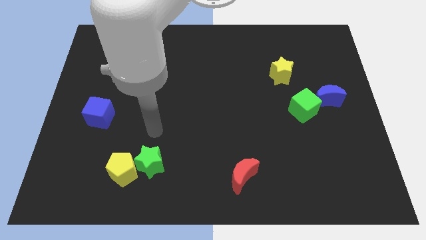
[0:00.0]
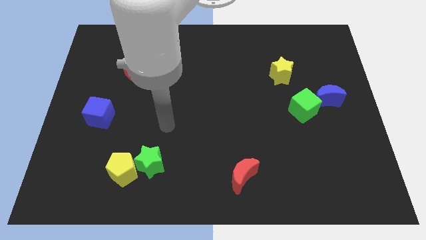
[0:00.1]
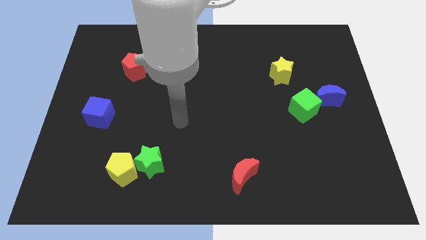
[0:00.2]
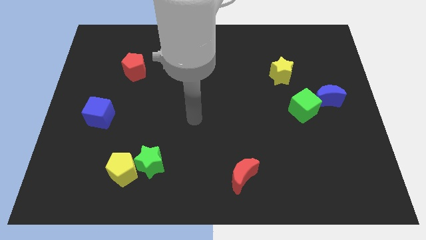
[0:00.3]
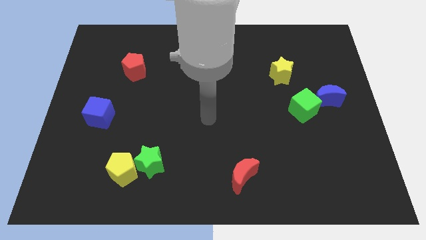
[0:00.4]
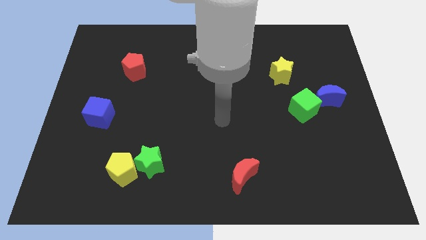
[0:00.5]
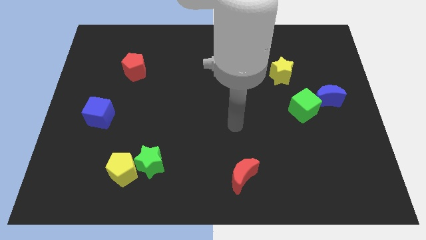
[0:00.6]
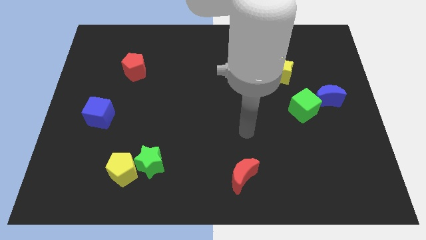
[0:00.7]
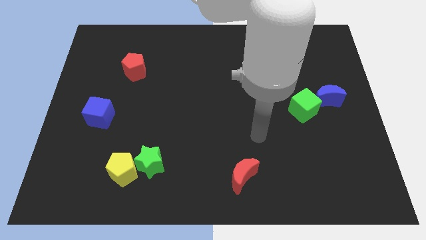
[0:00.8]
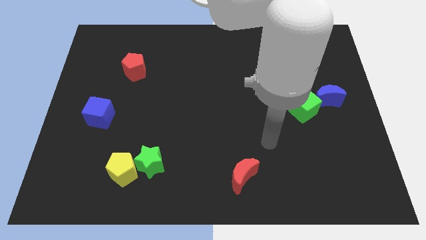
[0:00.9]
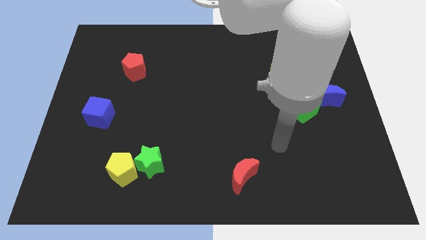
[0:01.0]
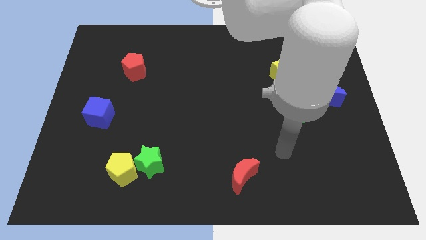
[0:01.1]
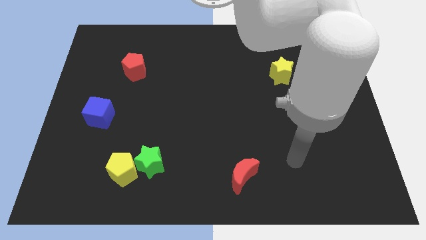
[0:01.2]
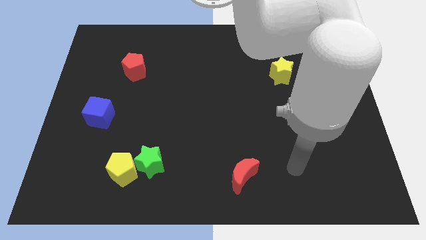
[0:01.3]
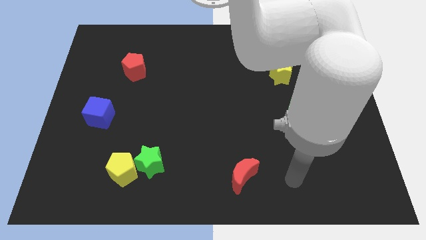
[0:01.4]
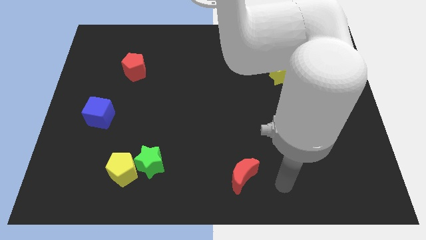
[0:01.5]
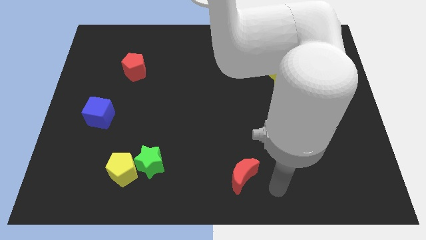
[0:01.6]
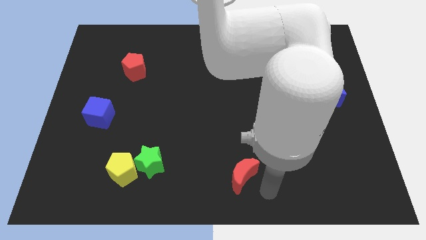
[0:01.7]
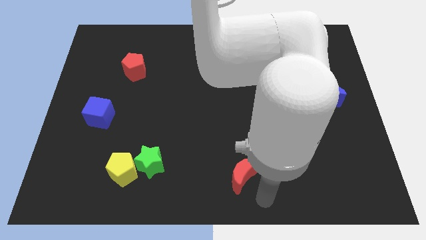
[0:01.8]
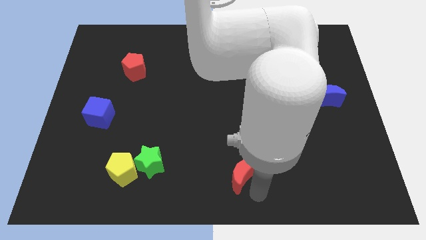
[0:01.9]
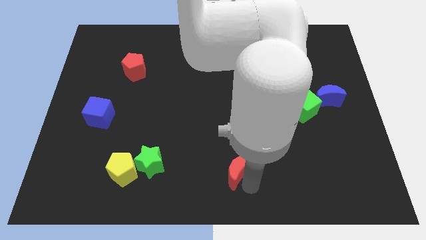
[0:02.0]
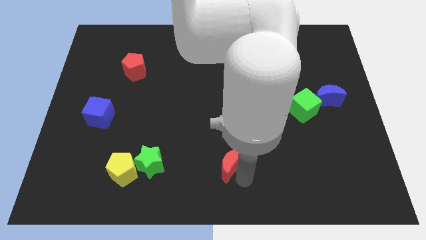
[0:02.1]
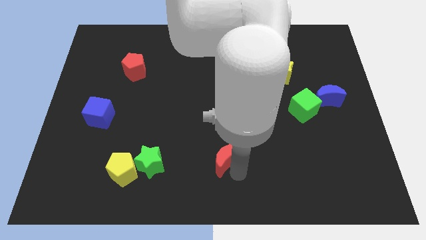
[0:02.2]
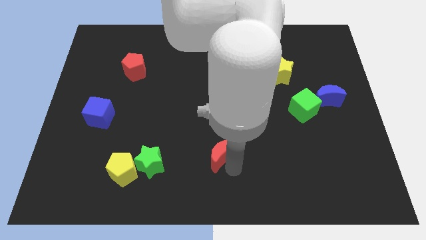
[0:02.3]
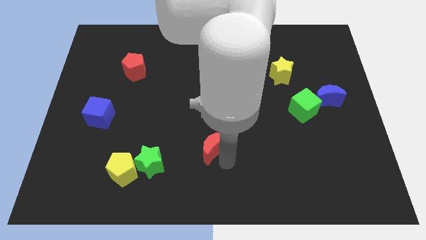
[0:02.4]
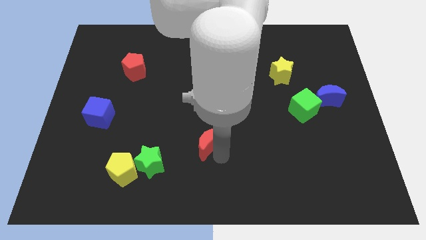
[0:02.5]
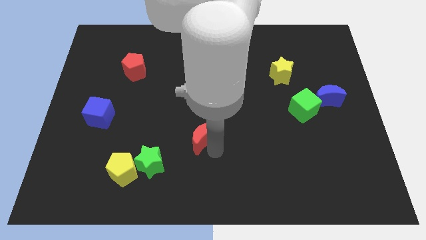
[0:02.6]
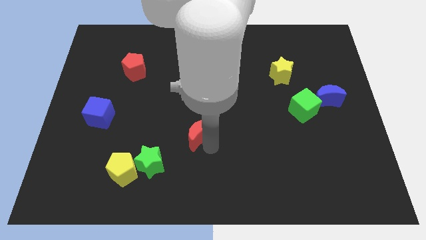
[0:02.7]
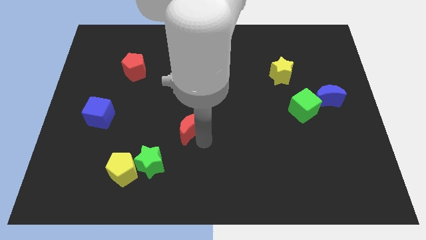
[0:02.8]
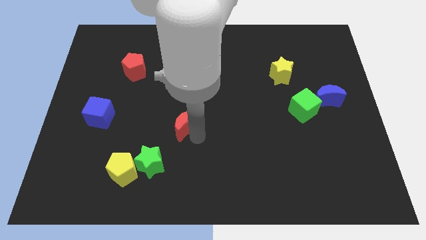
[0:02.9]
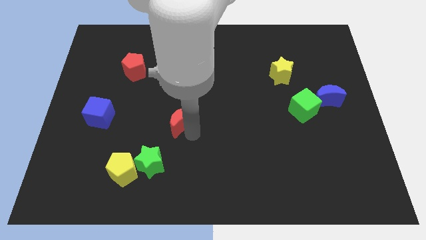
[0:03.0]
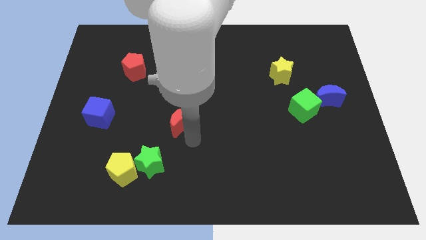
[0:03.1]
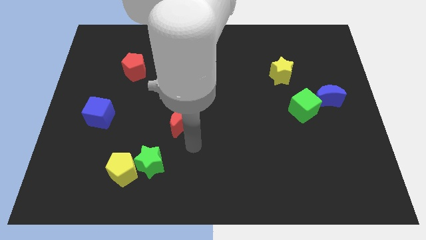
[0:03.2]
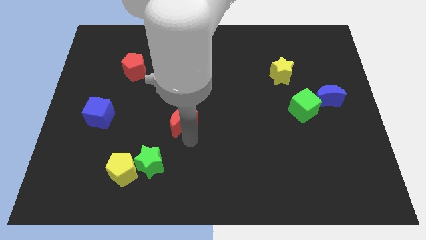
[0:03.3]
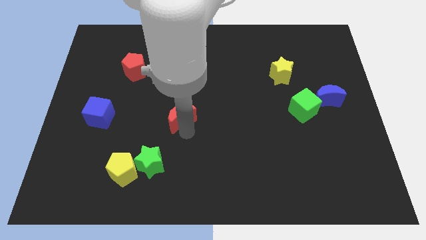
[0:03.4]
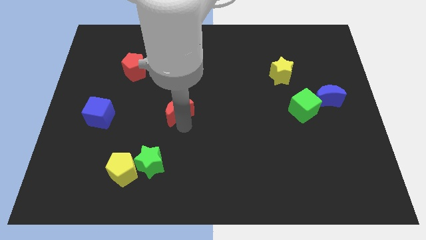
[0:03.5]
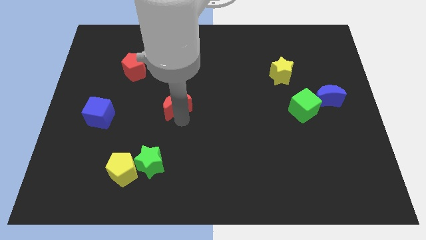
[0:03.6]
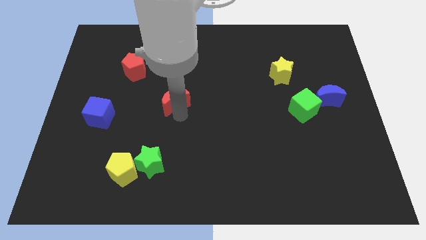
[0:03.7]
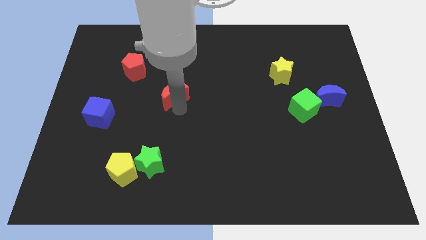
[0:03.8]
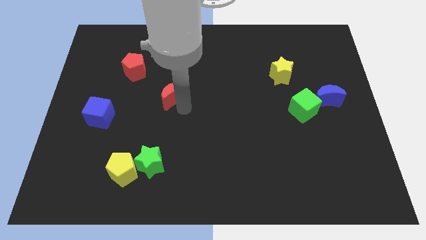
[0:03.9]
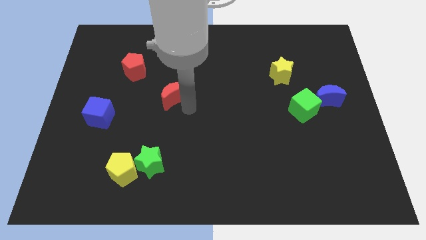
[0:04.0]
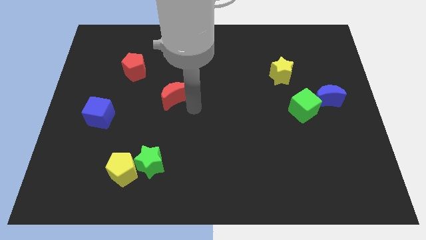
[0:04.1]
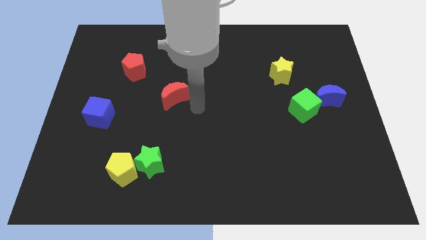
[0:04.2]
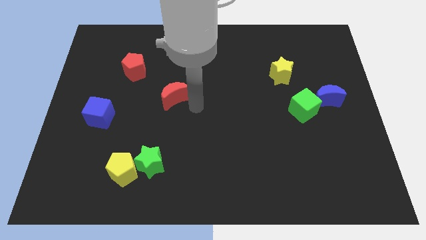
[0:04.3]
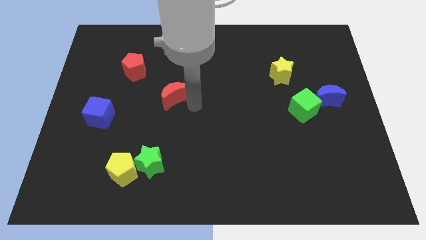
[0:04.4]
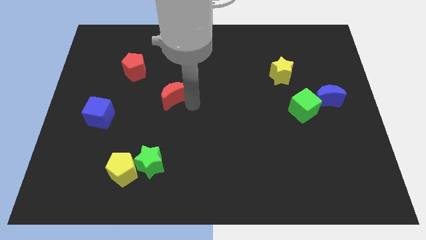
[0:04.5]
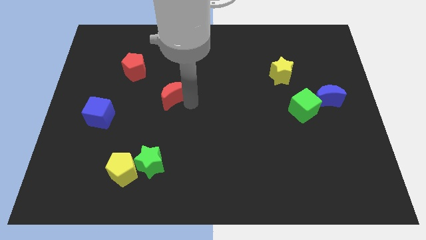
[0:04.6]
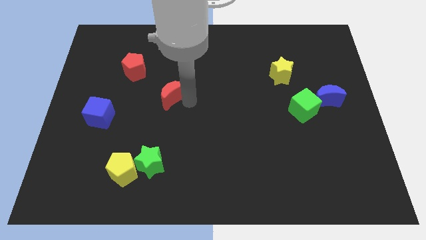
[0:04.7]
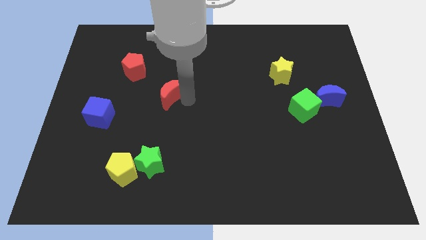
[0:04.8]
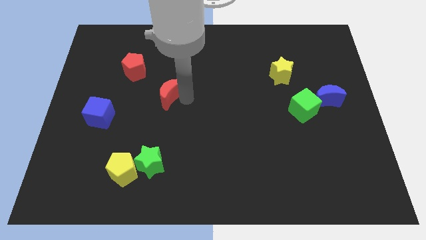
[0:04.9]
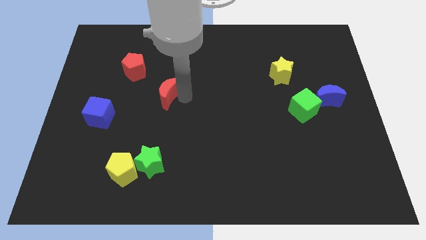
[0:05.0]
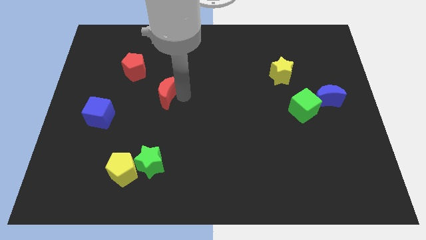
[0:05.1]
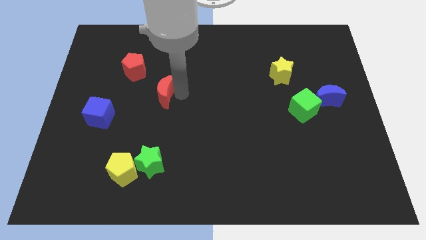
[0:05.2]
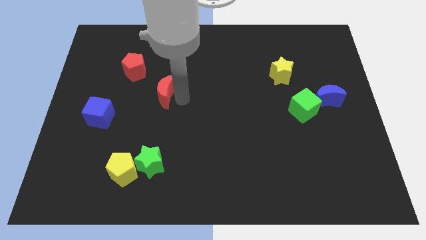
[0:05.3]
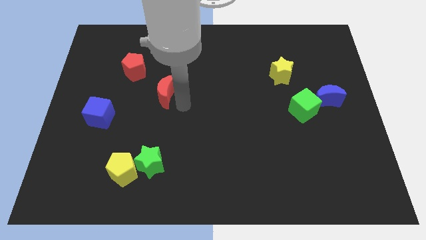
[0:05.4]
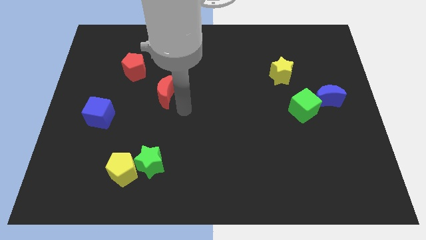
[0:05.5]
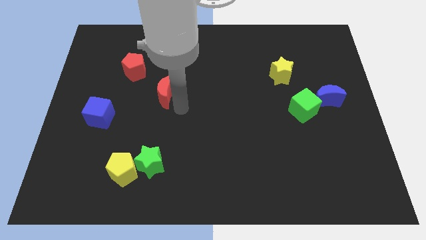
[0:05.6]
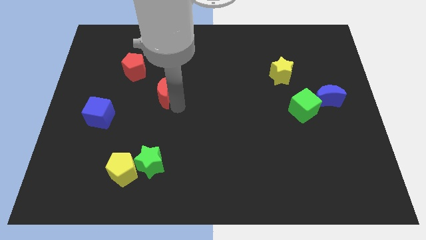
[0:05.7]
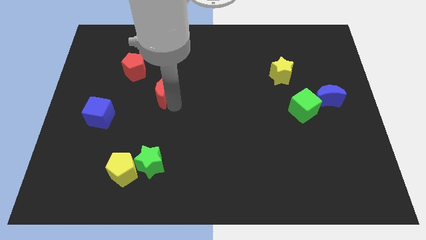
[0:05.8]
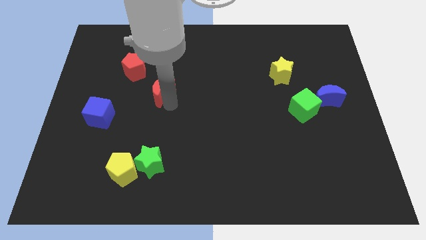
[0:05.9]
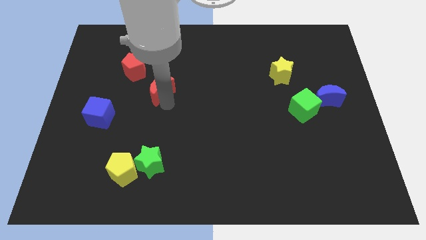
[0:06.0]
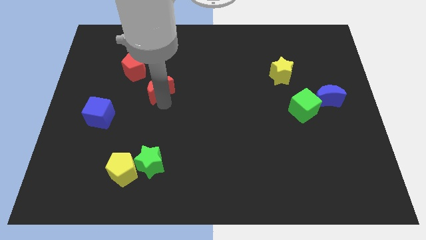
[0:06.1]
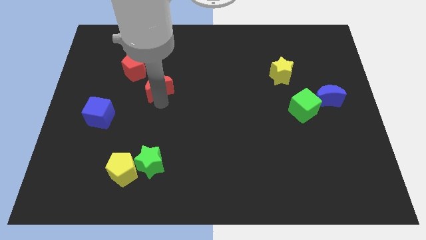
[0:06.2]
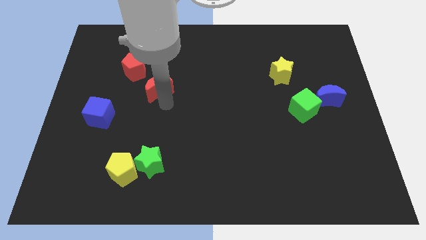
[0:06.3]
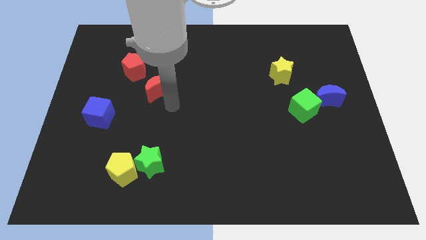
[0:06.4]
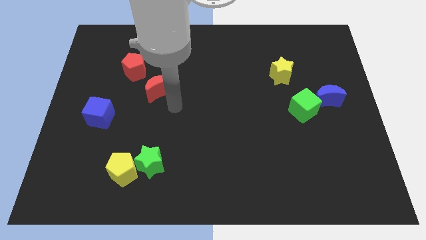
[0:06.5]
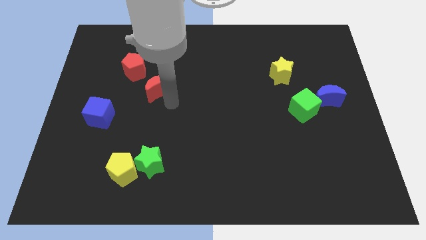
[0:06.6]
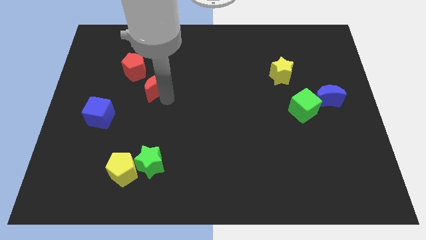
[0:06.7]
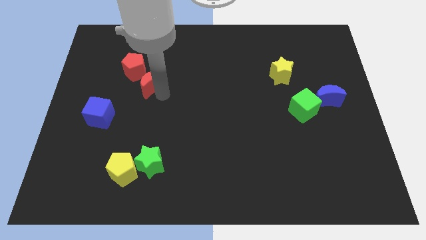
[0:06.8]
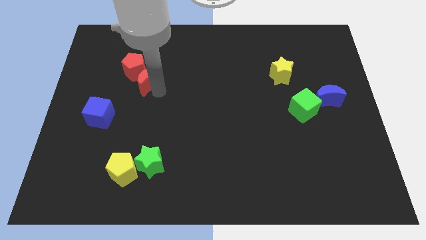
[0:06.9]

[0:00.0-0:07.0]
move the red moon close to the red pentagon
